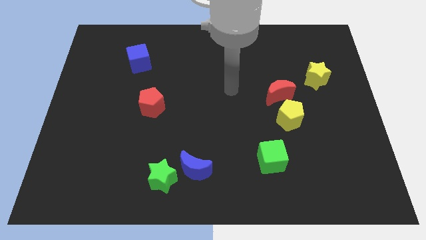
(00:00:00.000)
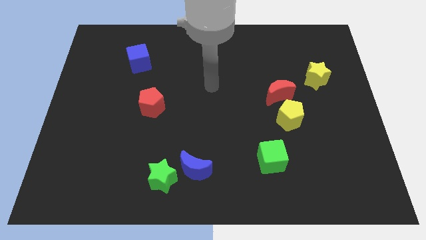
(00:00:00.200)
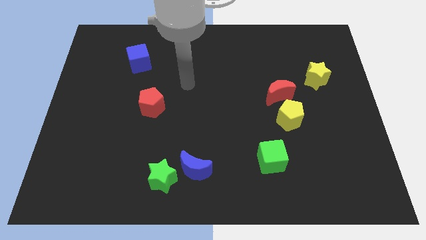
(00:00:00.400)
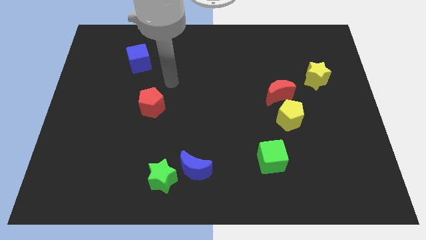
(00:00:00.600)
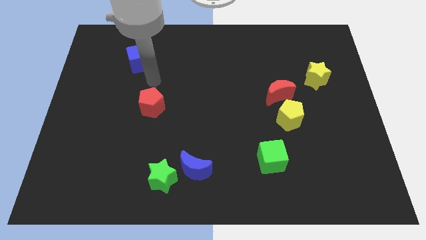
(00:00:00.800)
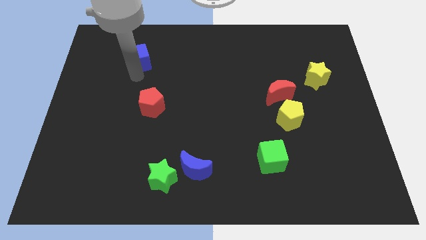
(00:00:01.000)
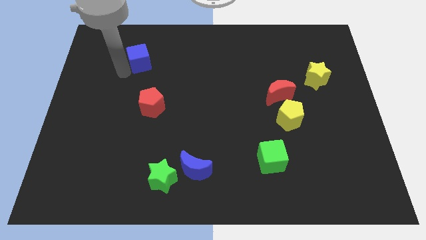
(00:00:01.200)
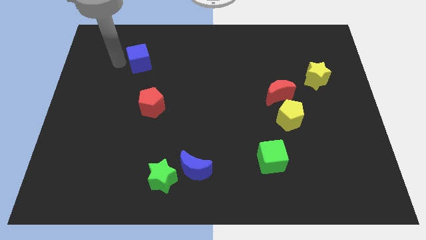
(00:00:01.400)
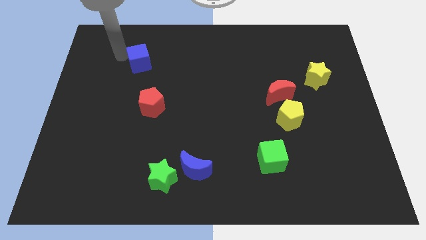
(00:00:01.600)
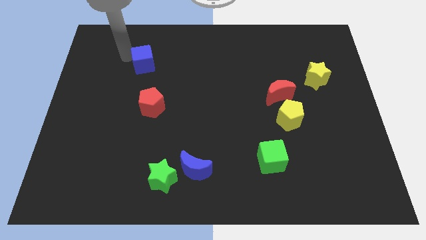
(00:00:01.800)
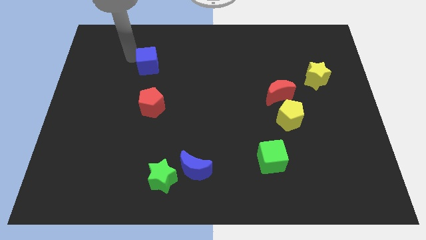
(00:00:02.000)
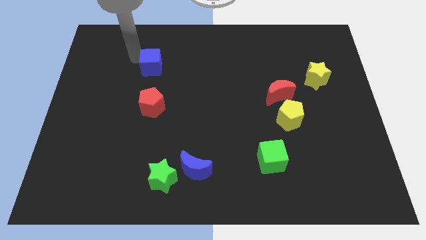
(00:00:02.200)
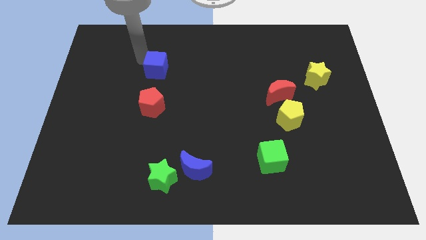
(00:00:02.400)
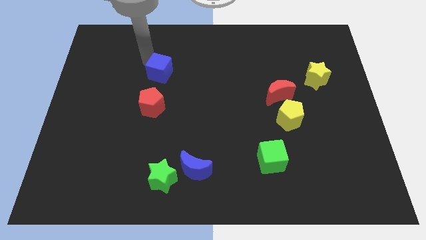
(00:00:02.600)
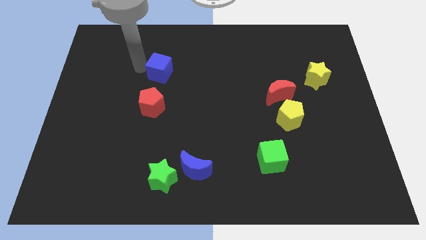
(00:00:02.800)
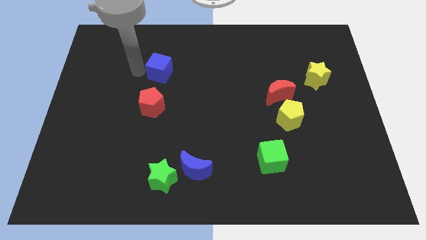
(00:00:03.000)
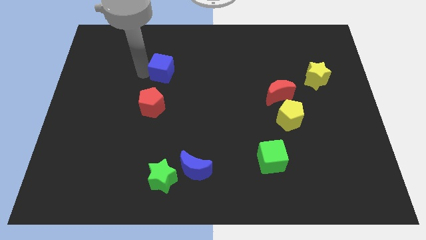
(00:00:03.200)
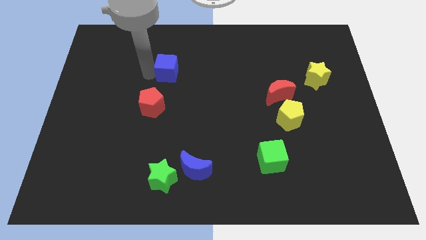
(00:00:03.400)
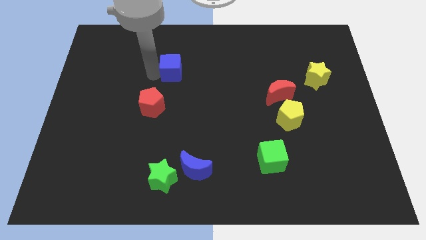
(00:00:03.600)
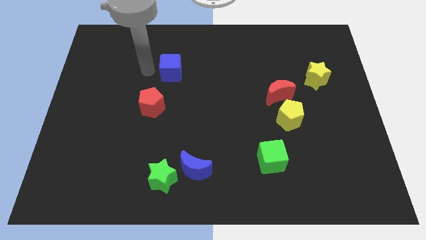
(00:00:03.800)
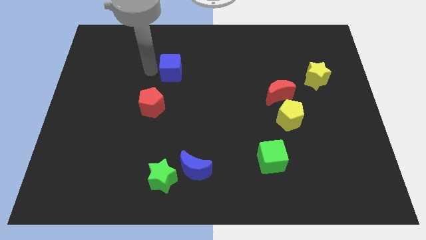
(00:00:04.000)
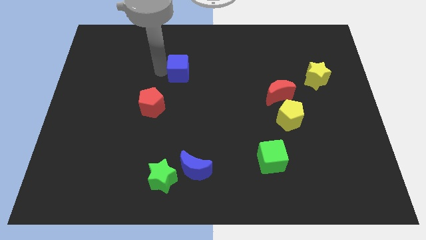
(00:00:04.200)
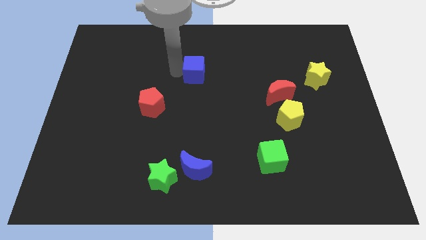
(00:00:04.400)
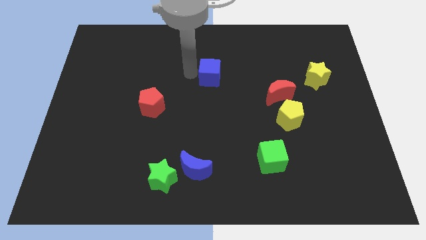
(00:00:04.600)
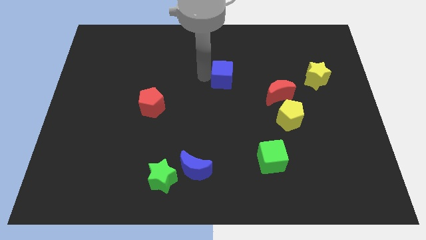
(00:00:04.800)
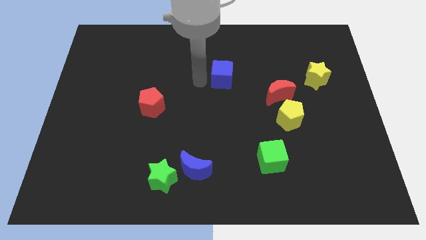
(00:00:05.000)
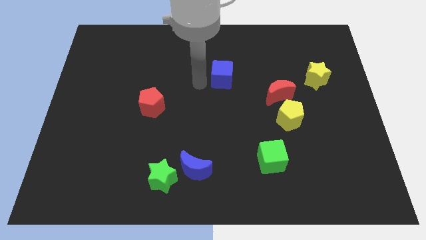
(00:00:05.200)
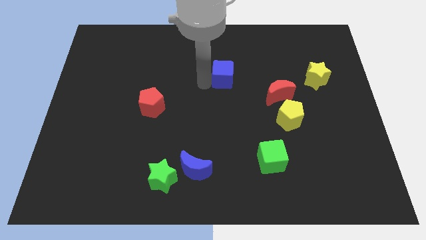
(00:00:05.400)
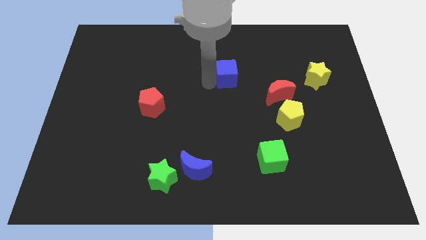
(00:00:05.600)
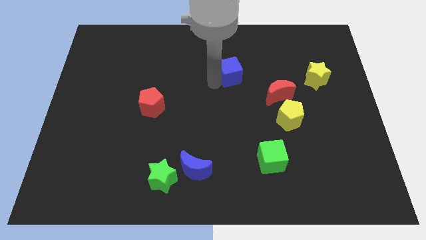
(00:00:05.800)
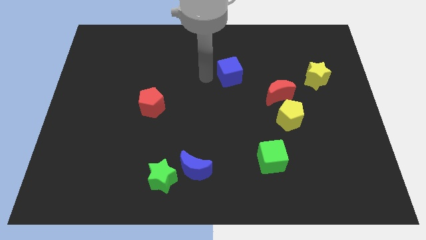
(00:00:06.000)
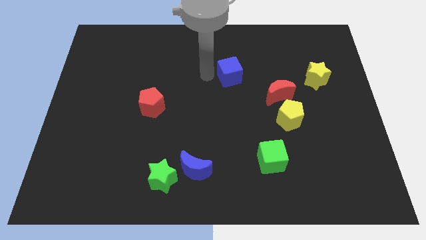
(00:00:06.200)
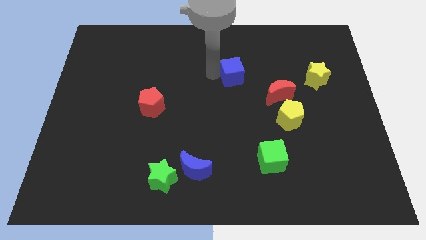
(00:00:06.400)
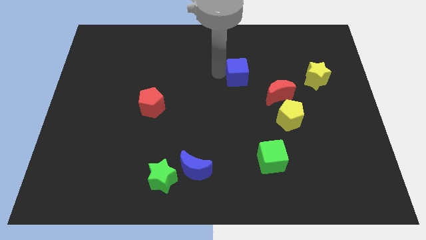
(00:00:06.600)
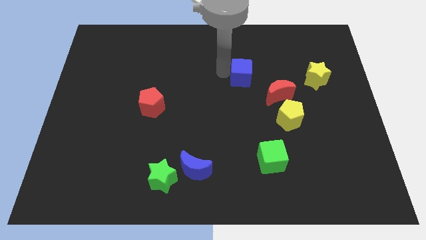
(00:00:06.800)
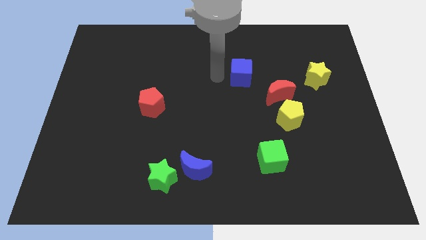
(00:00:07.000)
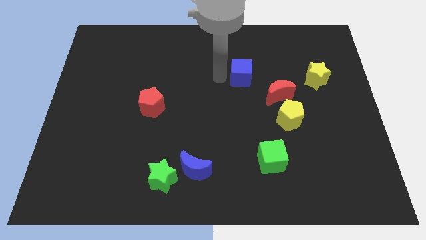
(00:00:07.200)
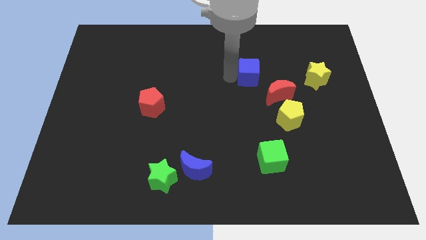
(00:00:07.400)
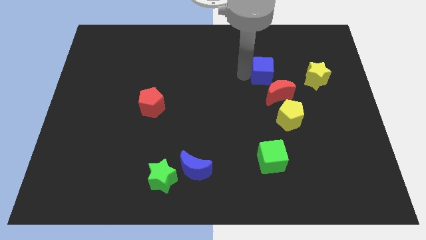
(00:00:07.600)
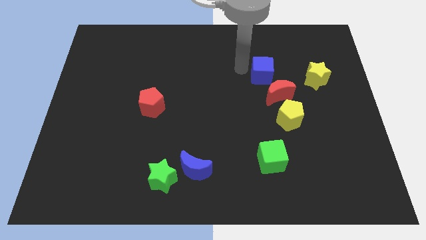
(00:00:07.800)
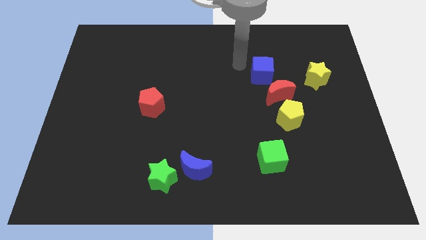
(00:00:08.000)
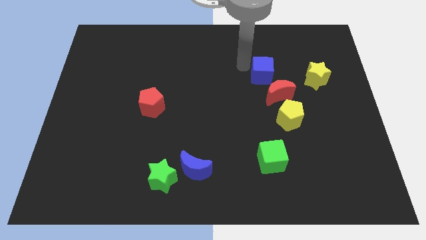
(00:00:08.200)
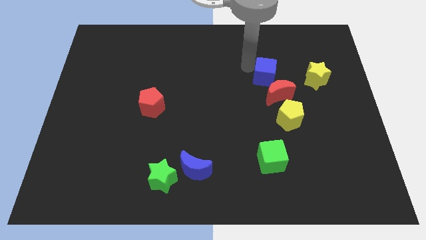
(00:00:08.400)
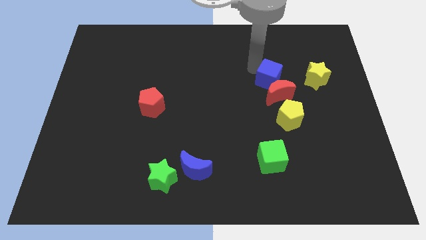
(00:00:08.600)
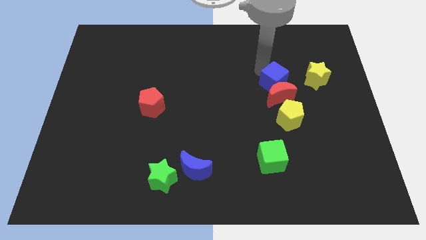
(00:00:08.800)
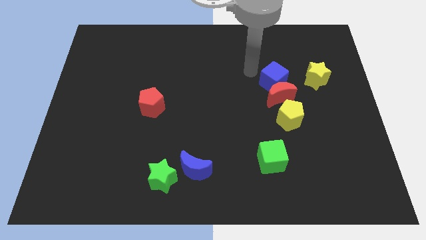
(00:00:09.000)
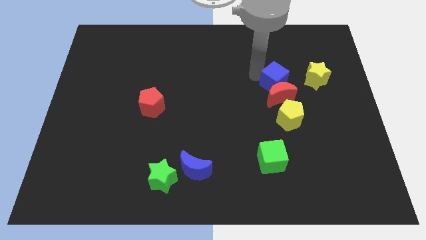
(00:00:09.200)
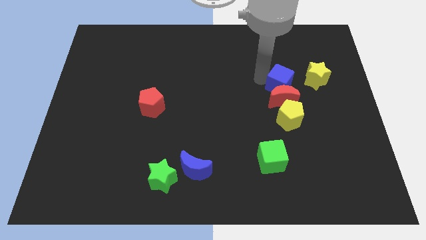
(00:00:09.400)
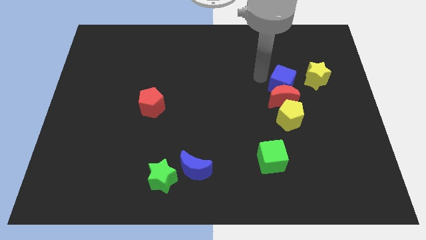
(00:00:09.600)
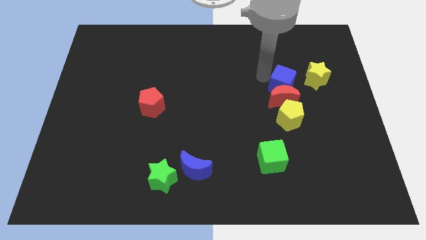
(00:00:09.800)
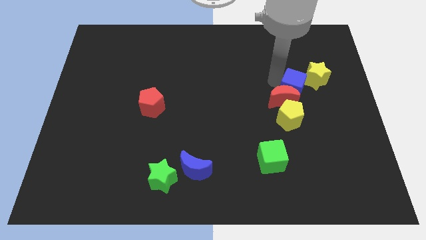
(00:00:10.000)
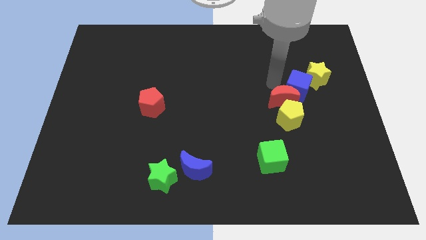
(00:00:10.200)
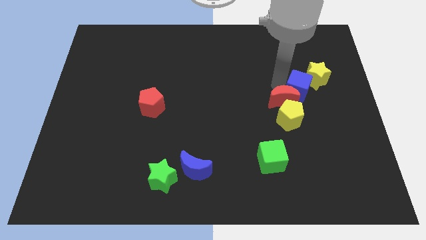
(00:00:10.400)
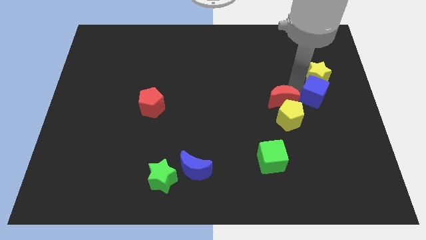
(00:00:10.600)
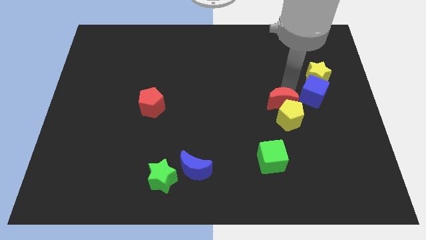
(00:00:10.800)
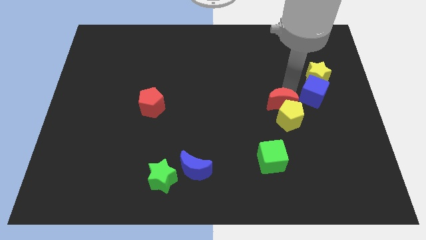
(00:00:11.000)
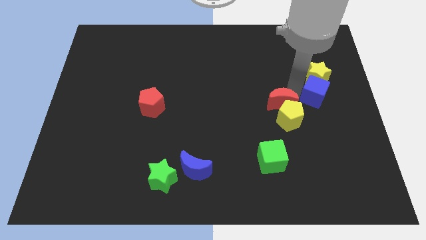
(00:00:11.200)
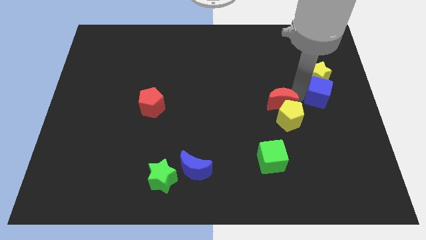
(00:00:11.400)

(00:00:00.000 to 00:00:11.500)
put the blue cube to the right side

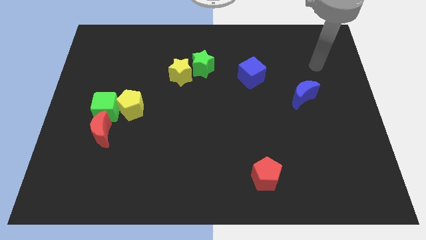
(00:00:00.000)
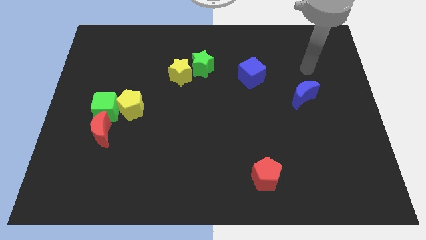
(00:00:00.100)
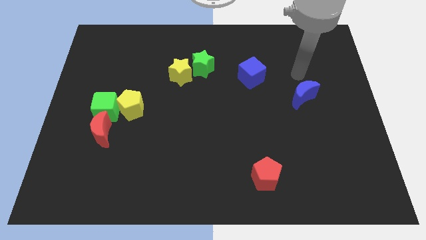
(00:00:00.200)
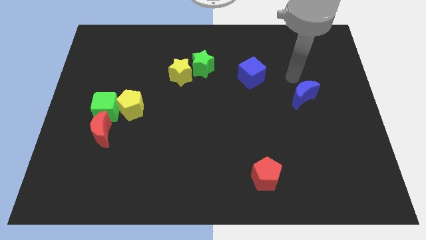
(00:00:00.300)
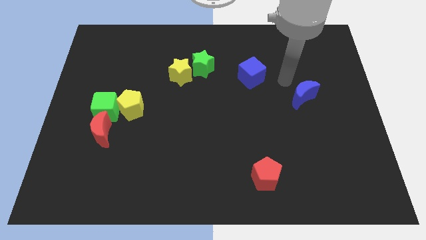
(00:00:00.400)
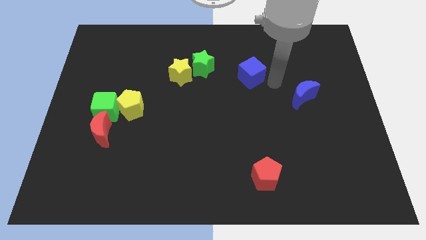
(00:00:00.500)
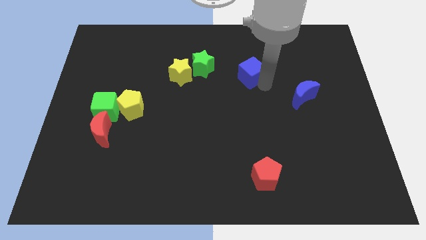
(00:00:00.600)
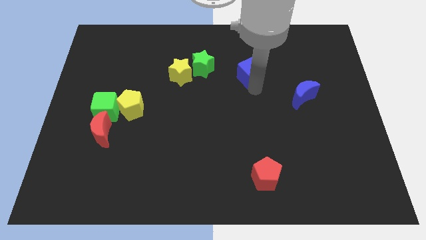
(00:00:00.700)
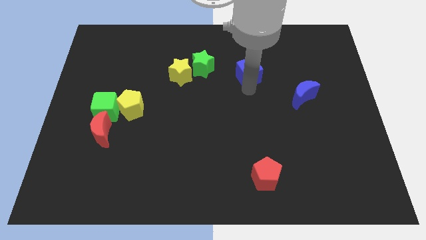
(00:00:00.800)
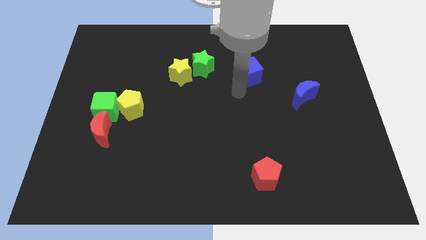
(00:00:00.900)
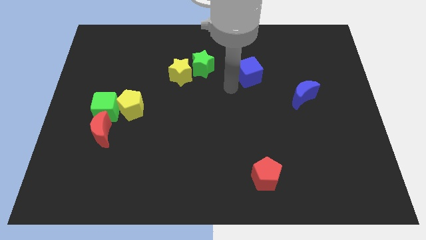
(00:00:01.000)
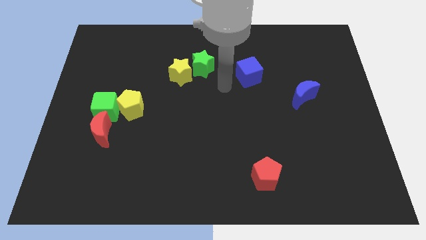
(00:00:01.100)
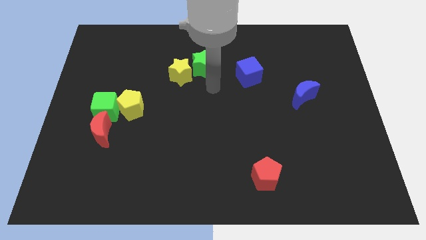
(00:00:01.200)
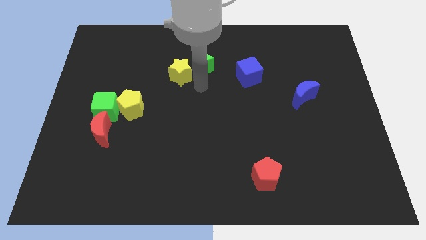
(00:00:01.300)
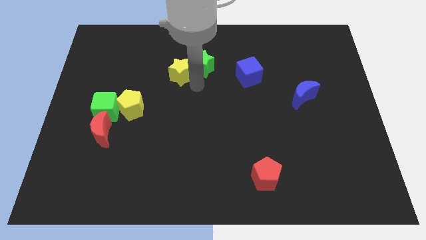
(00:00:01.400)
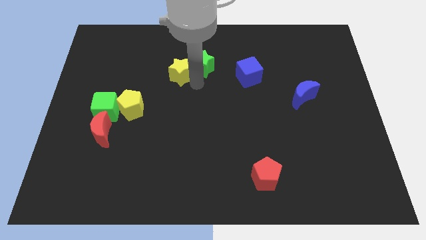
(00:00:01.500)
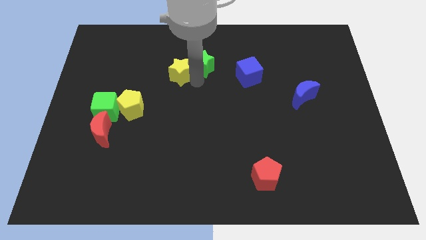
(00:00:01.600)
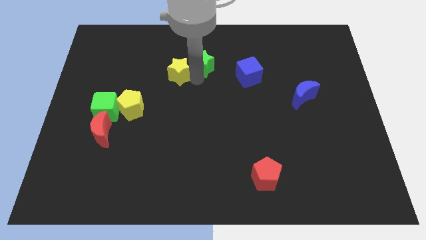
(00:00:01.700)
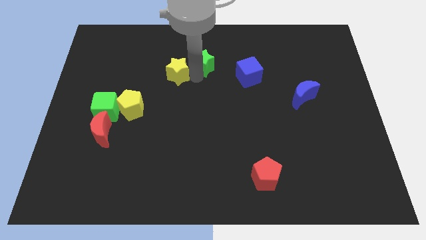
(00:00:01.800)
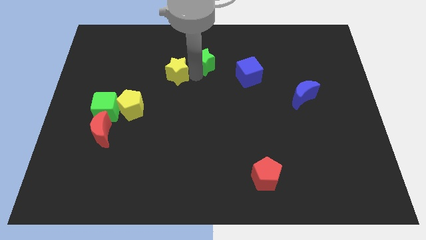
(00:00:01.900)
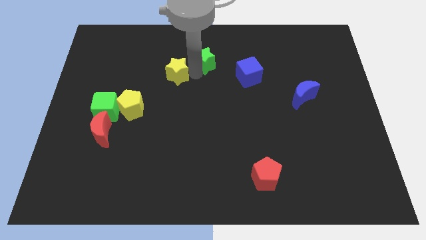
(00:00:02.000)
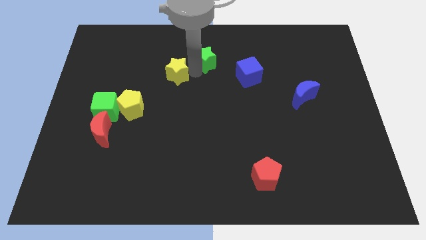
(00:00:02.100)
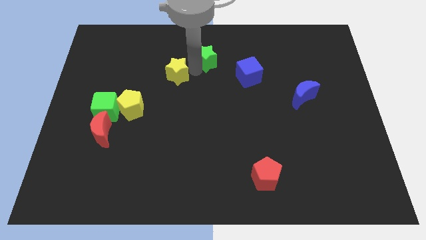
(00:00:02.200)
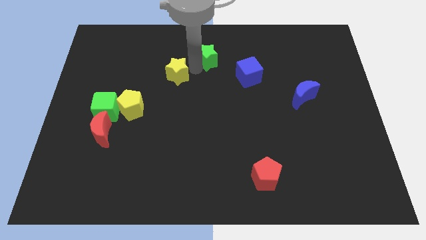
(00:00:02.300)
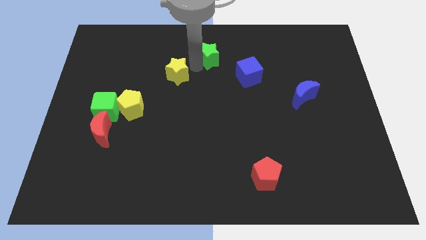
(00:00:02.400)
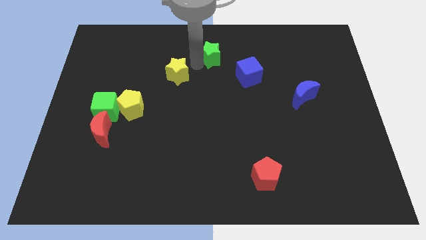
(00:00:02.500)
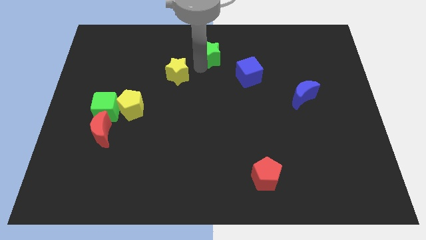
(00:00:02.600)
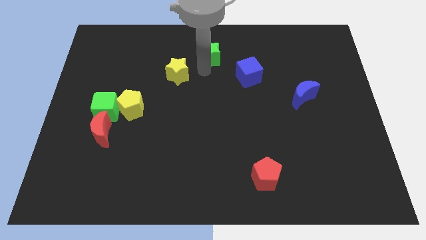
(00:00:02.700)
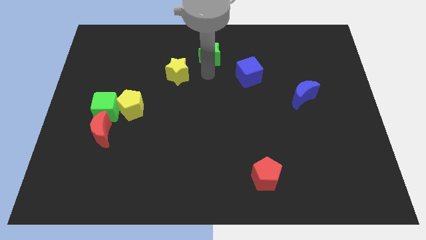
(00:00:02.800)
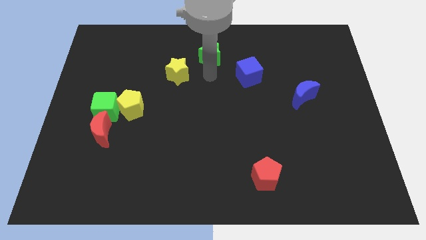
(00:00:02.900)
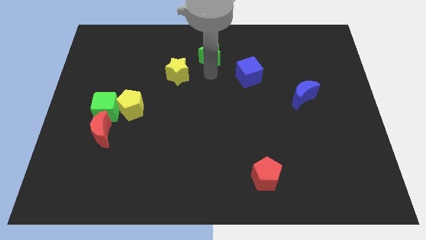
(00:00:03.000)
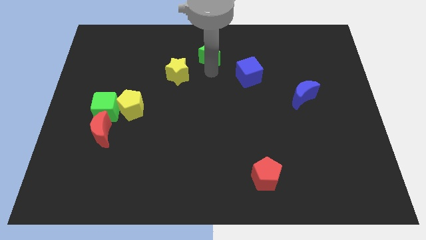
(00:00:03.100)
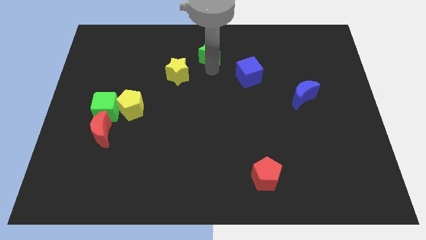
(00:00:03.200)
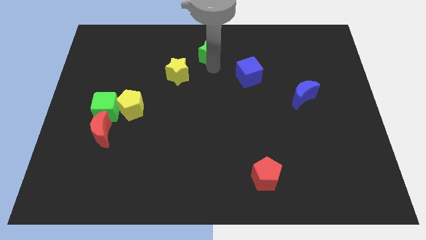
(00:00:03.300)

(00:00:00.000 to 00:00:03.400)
push the green star to the towards your base
